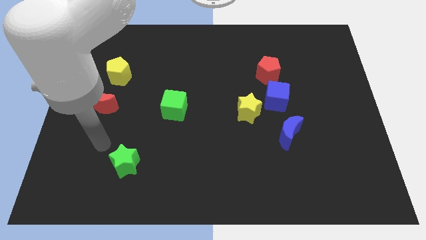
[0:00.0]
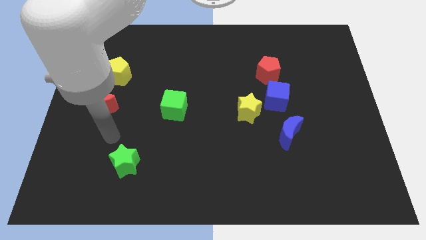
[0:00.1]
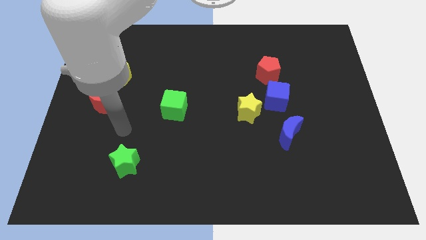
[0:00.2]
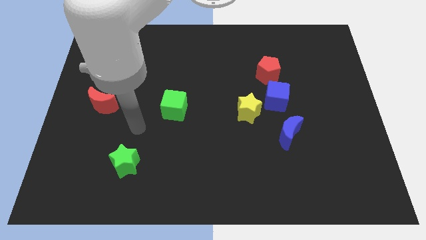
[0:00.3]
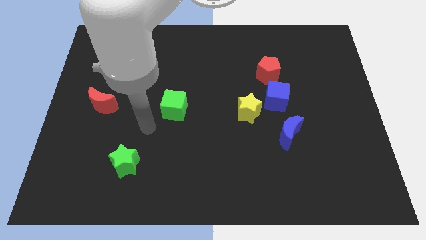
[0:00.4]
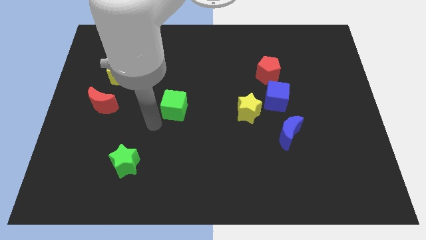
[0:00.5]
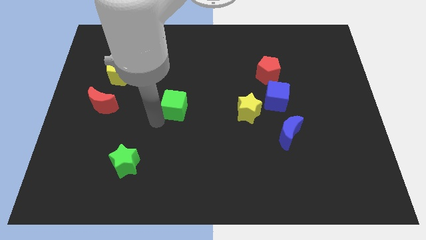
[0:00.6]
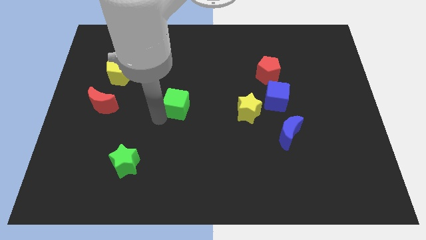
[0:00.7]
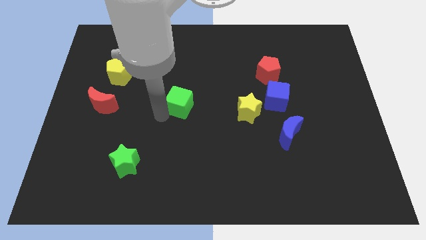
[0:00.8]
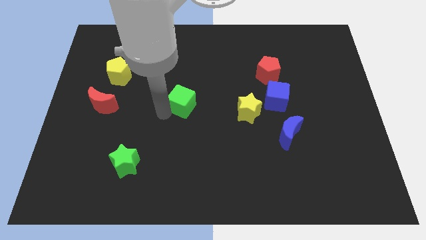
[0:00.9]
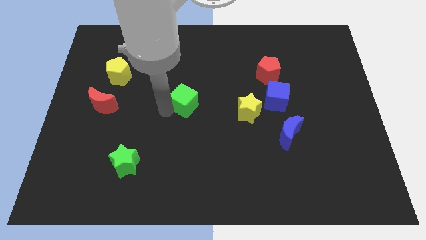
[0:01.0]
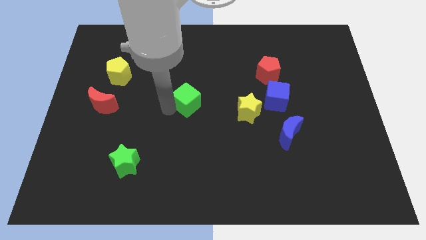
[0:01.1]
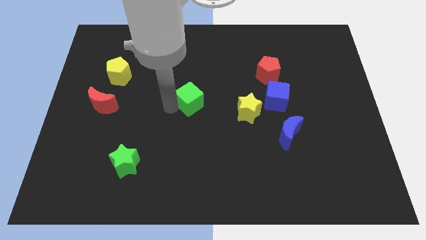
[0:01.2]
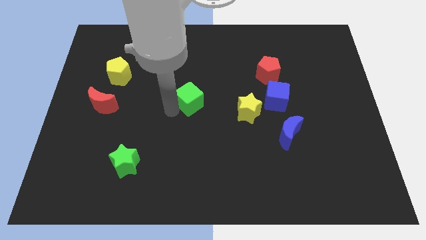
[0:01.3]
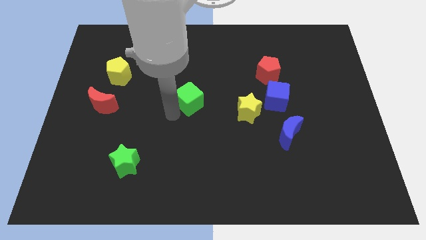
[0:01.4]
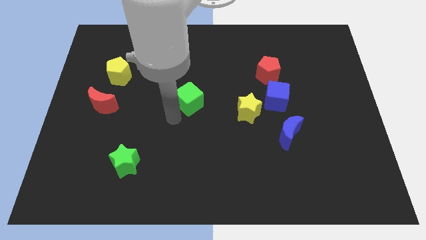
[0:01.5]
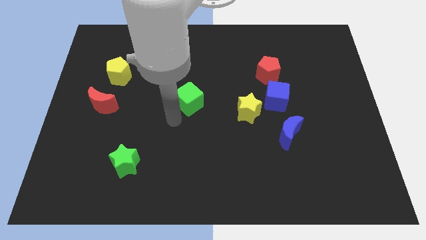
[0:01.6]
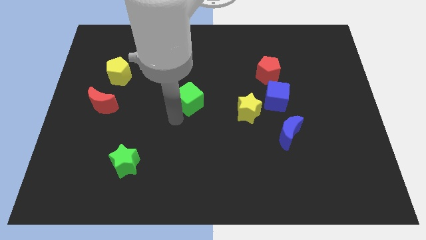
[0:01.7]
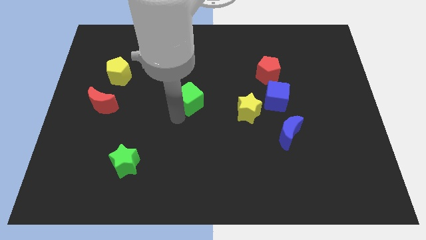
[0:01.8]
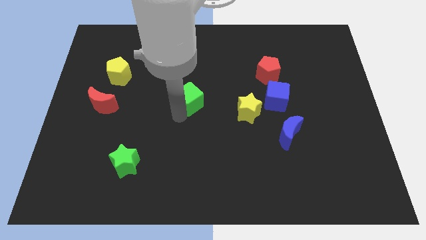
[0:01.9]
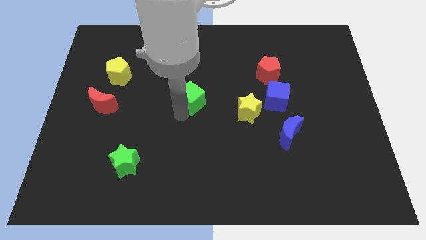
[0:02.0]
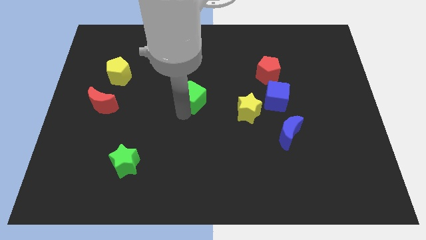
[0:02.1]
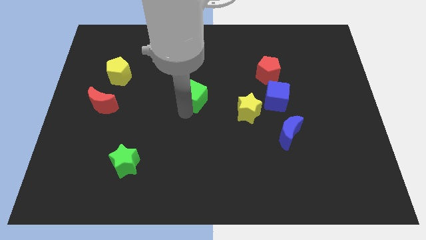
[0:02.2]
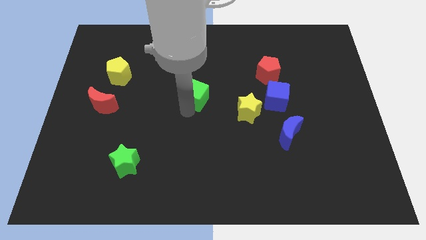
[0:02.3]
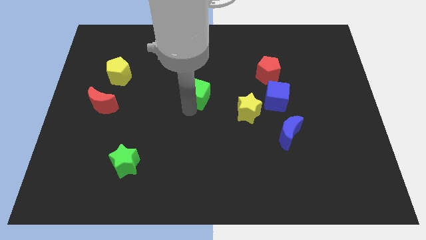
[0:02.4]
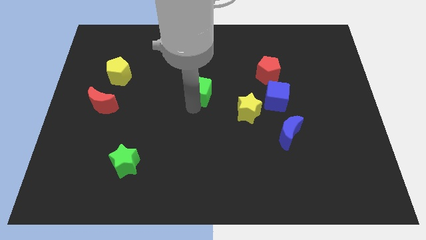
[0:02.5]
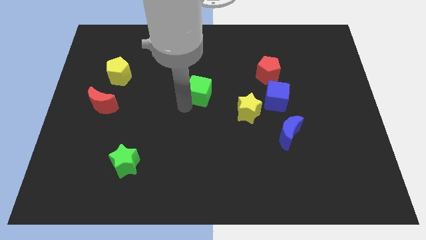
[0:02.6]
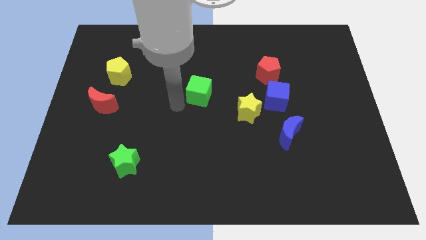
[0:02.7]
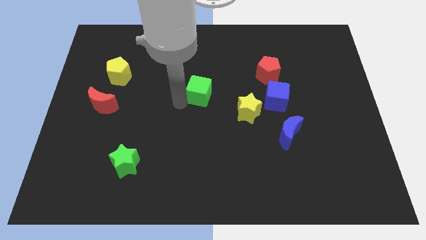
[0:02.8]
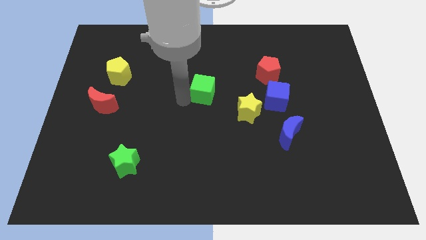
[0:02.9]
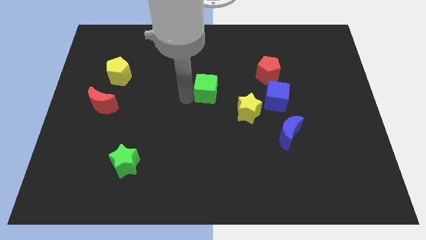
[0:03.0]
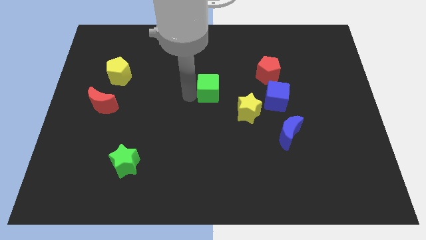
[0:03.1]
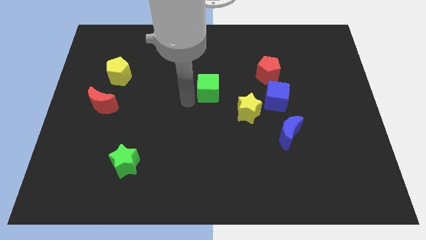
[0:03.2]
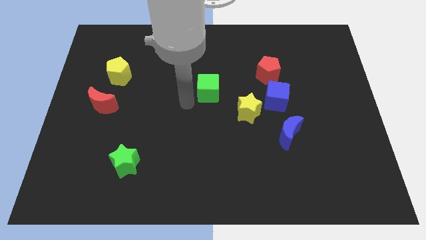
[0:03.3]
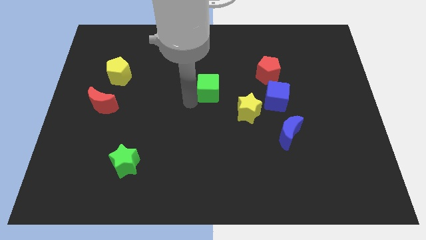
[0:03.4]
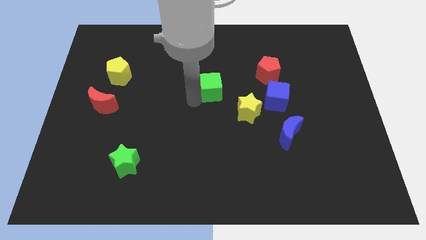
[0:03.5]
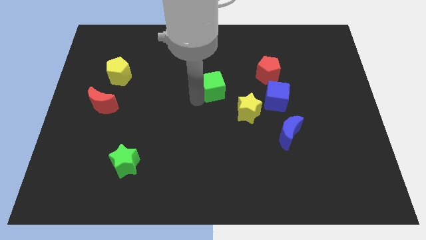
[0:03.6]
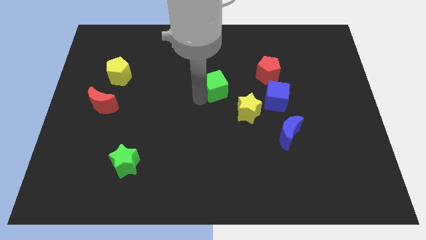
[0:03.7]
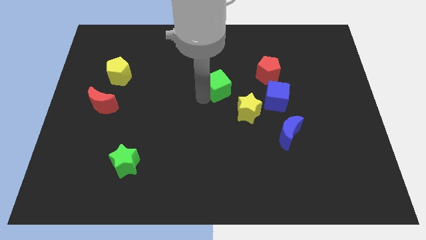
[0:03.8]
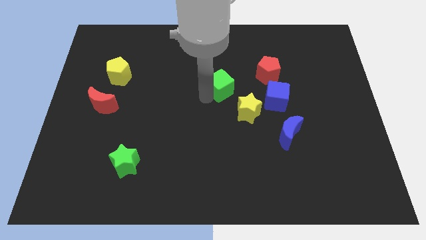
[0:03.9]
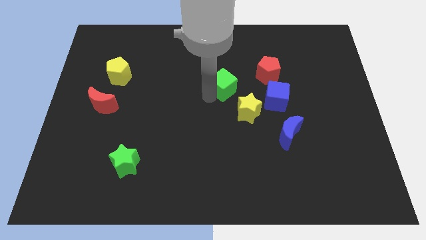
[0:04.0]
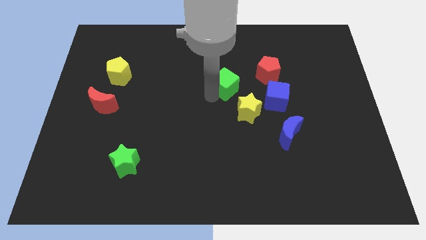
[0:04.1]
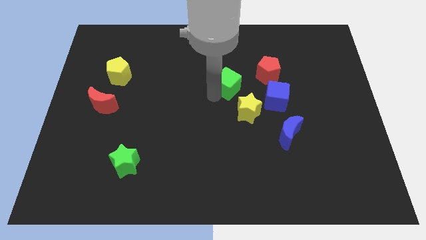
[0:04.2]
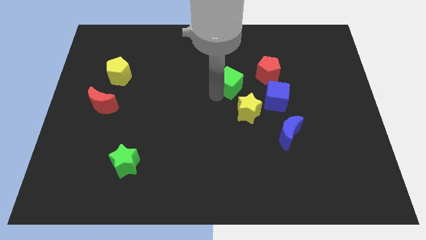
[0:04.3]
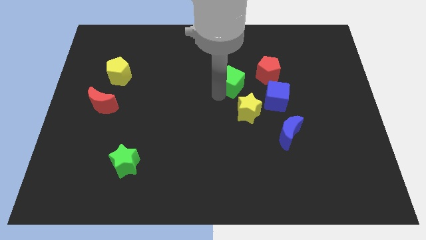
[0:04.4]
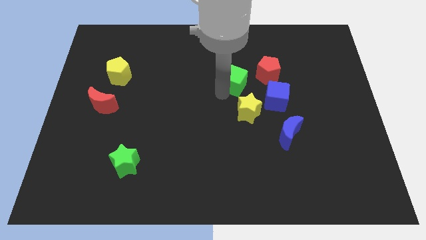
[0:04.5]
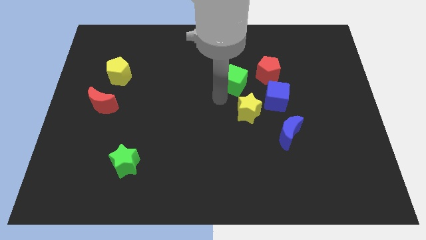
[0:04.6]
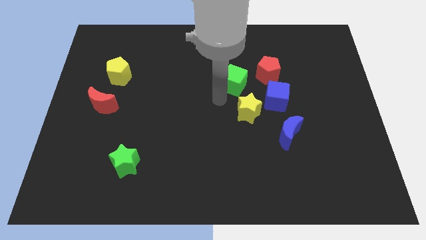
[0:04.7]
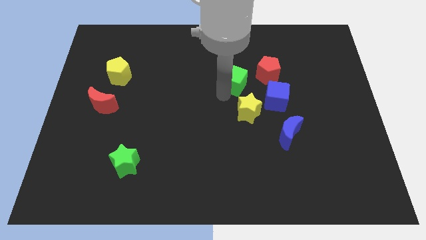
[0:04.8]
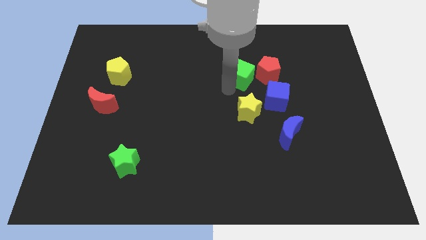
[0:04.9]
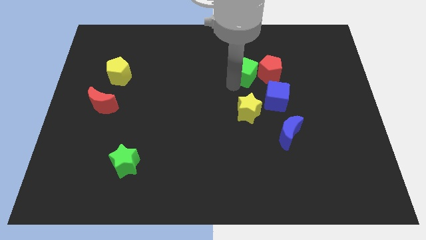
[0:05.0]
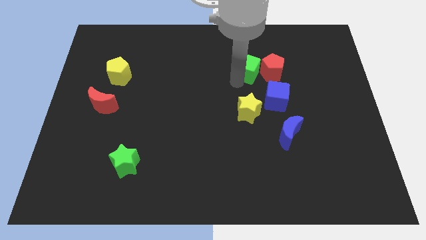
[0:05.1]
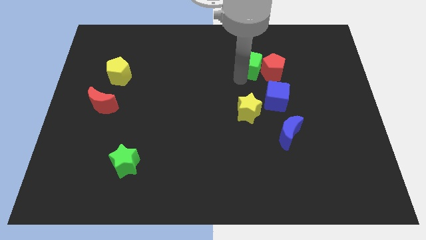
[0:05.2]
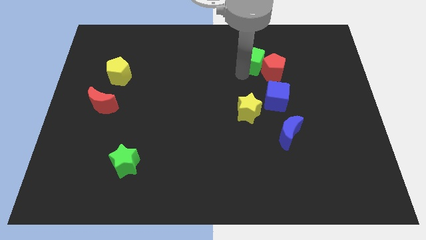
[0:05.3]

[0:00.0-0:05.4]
slide the green cube above the blue cube

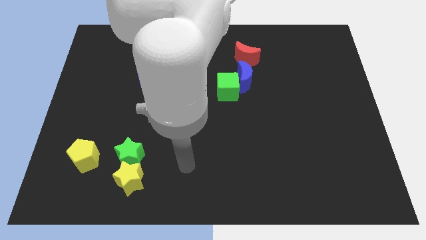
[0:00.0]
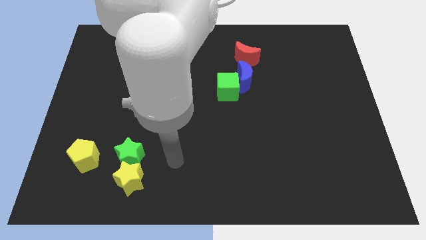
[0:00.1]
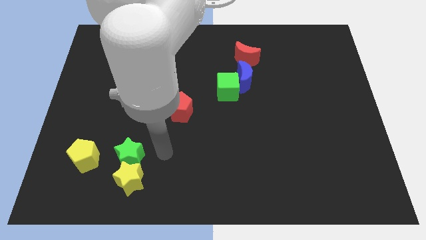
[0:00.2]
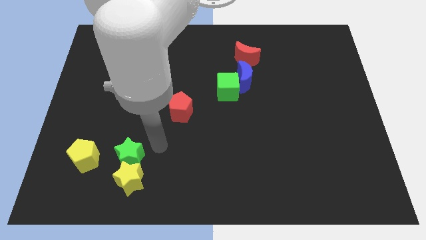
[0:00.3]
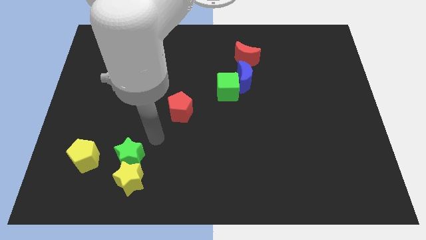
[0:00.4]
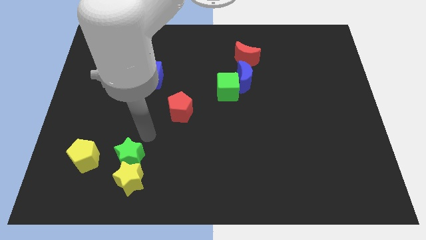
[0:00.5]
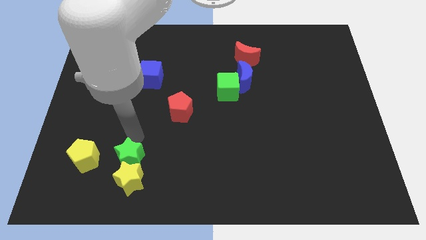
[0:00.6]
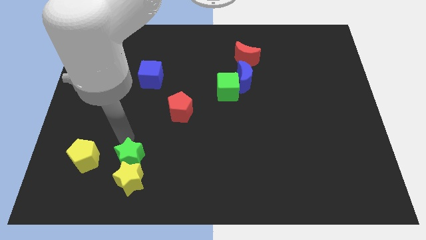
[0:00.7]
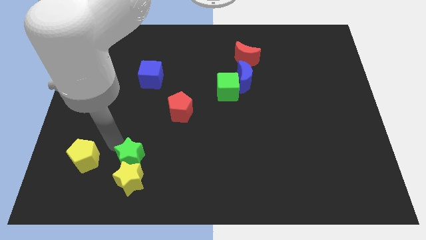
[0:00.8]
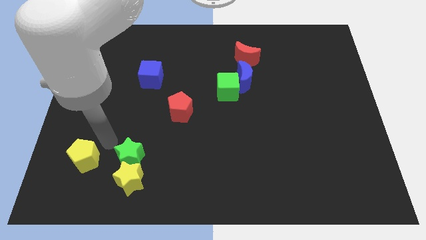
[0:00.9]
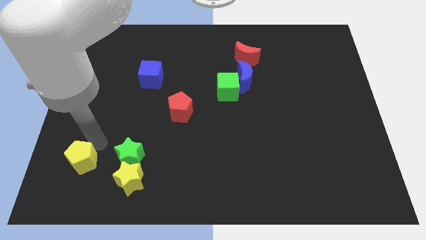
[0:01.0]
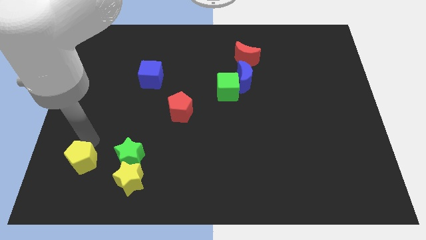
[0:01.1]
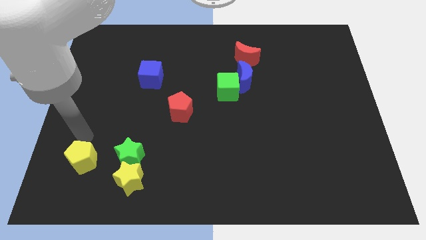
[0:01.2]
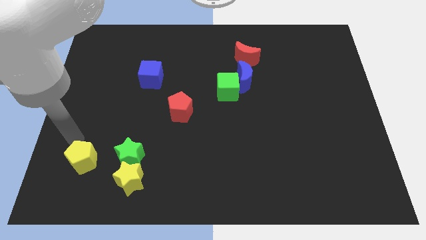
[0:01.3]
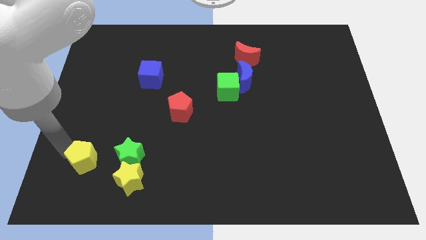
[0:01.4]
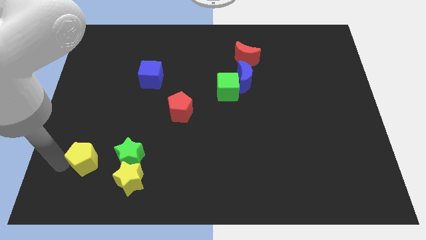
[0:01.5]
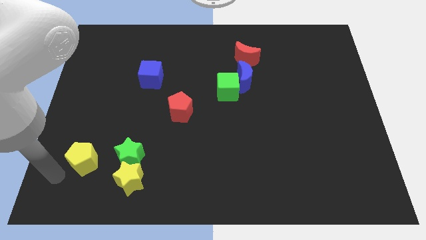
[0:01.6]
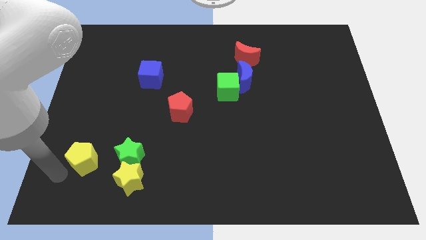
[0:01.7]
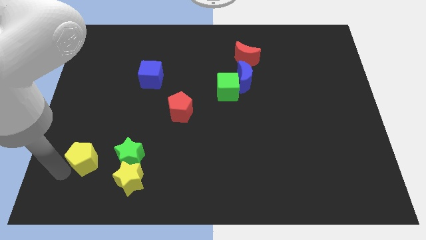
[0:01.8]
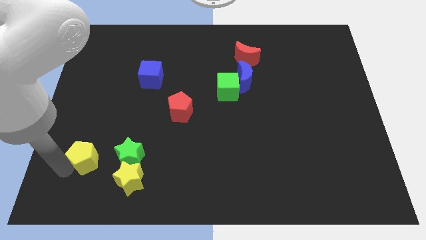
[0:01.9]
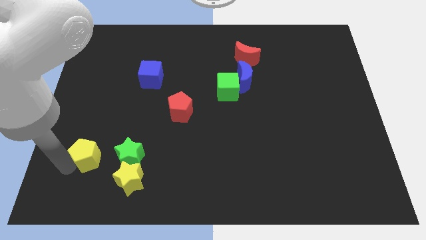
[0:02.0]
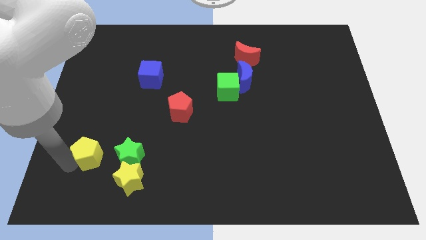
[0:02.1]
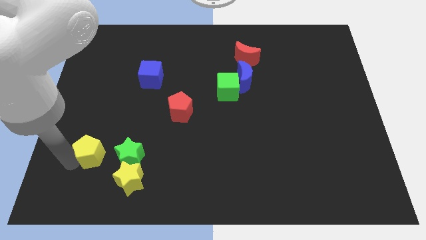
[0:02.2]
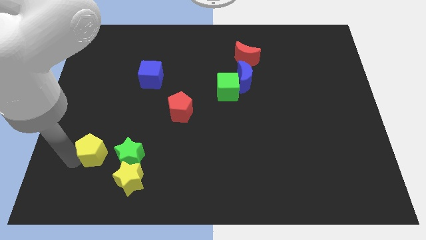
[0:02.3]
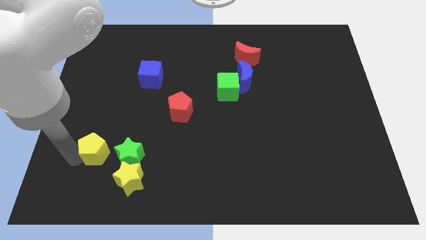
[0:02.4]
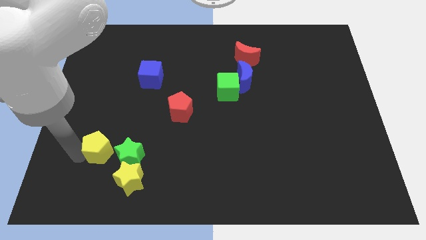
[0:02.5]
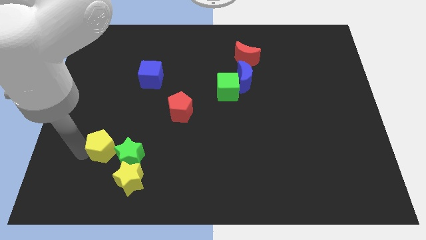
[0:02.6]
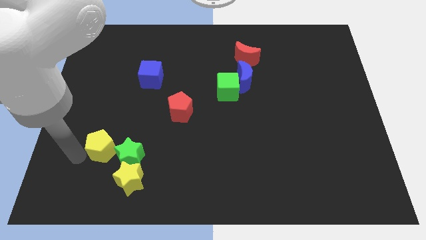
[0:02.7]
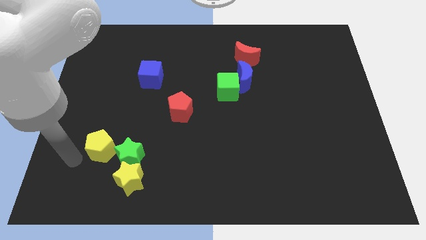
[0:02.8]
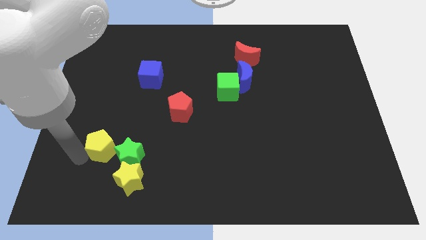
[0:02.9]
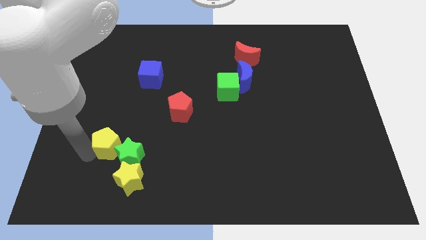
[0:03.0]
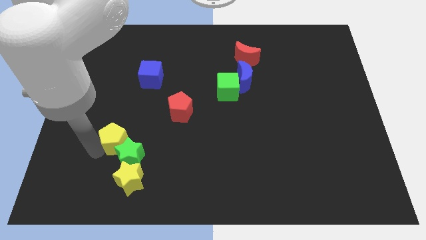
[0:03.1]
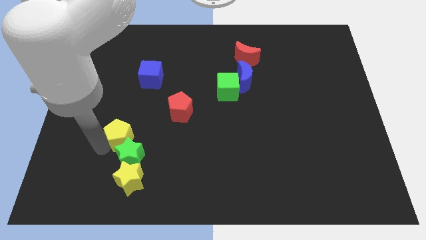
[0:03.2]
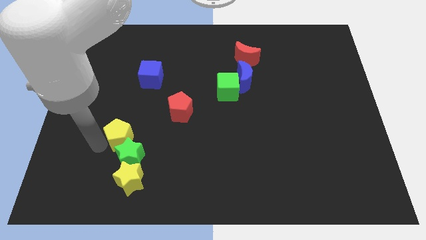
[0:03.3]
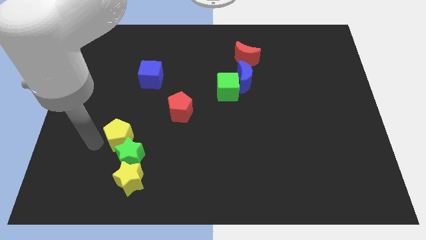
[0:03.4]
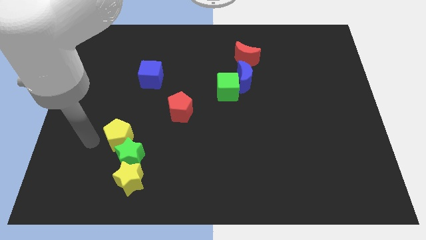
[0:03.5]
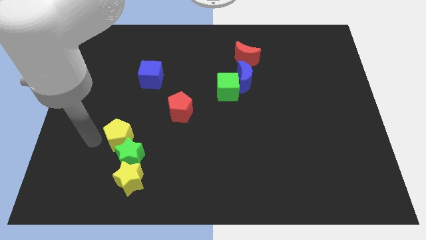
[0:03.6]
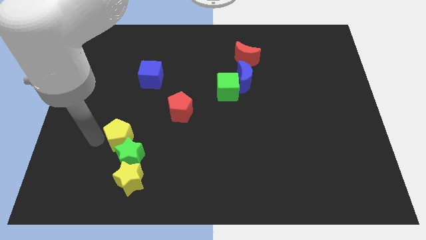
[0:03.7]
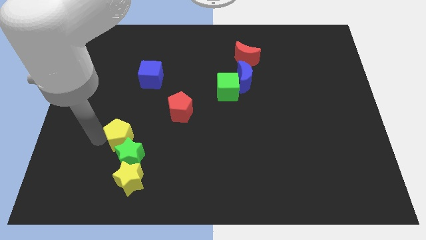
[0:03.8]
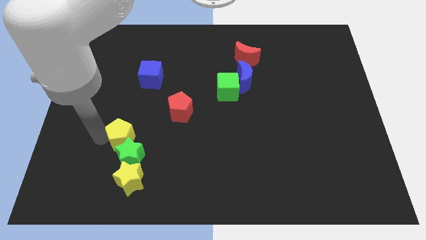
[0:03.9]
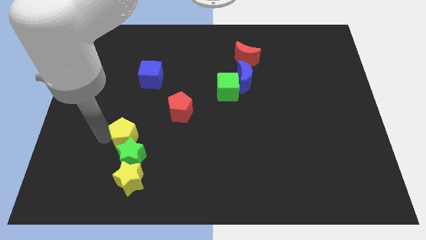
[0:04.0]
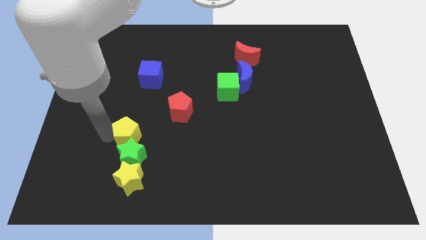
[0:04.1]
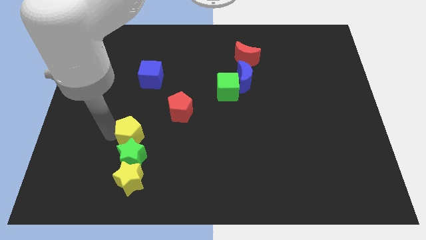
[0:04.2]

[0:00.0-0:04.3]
push the yellow pentagon to the bottom left side of the red pentagon
